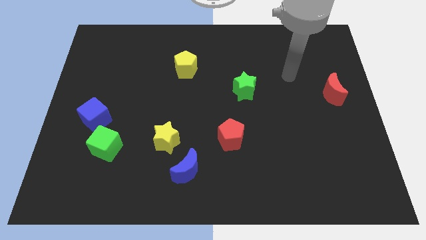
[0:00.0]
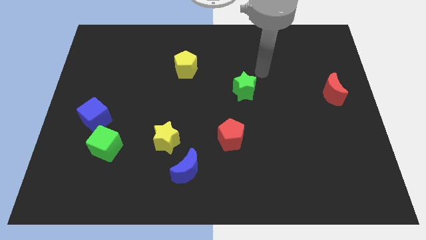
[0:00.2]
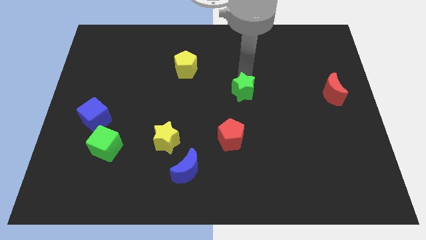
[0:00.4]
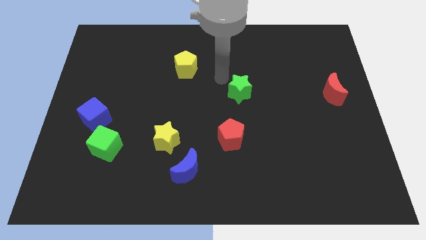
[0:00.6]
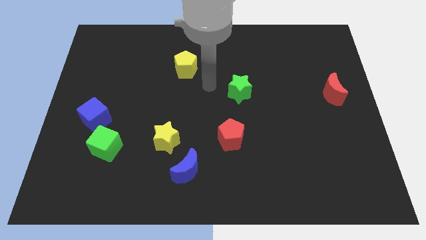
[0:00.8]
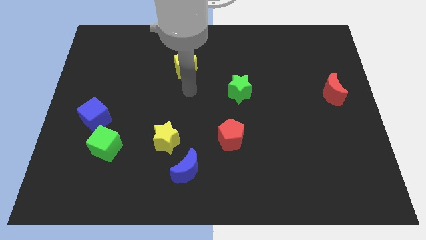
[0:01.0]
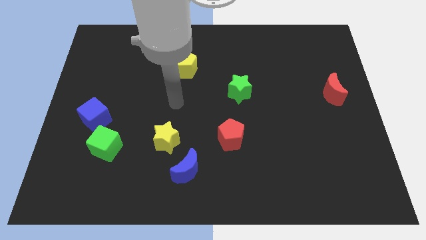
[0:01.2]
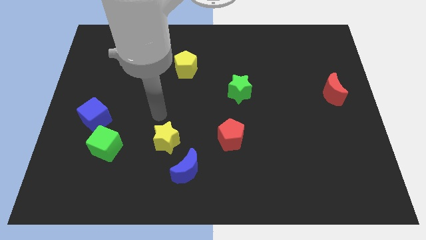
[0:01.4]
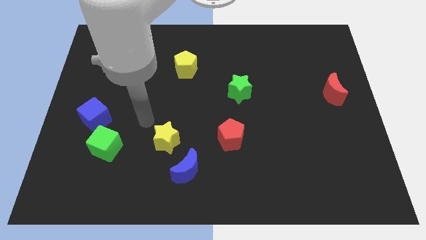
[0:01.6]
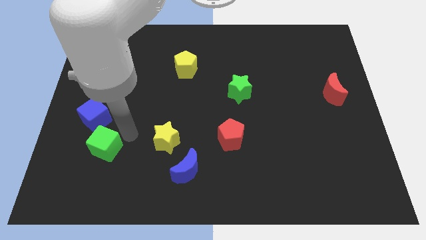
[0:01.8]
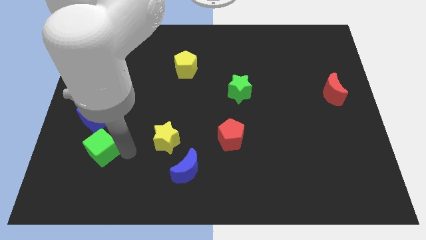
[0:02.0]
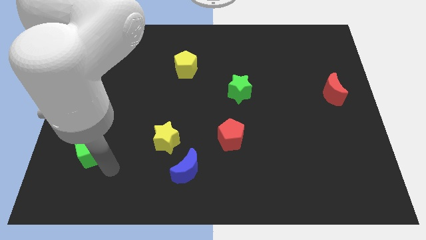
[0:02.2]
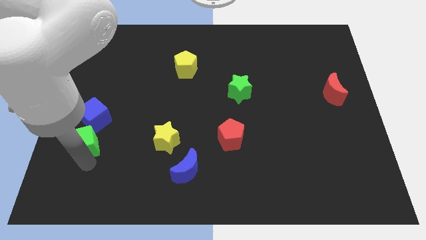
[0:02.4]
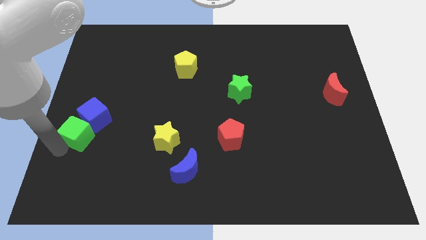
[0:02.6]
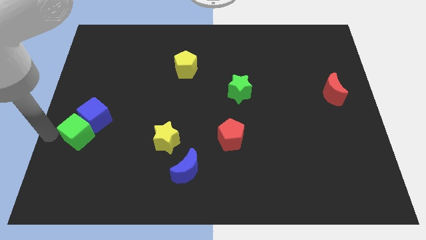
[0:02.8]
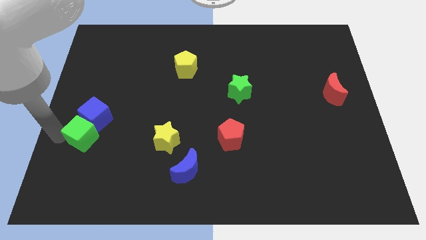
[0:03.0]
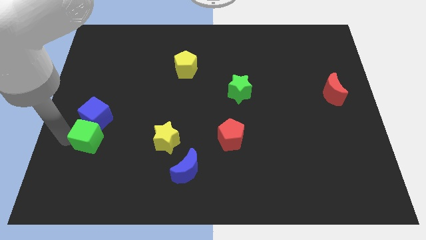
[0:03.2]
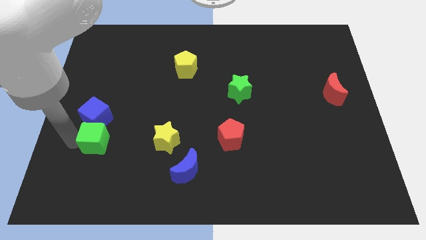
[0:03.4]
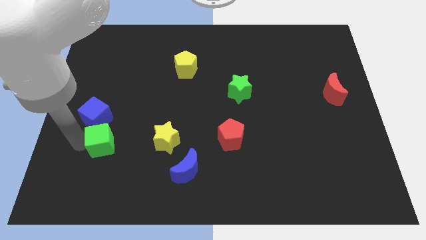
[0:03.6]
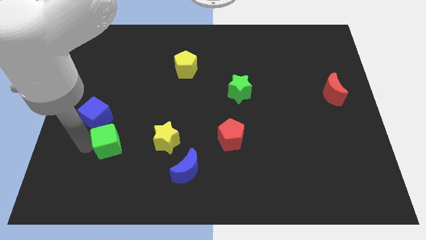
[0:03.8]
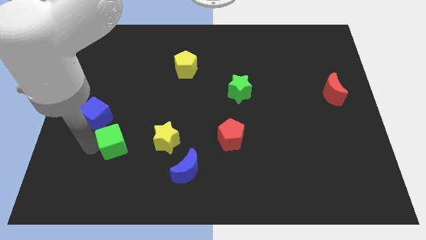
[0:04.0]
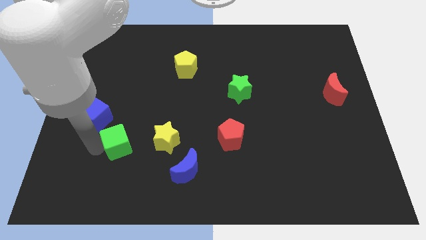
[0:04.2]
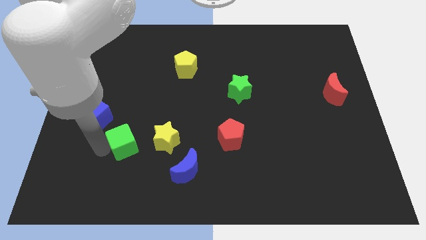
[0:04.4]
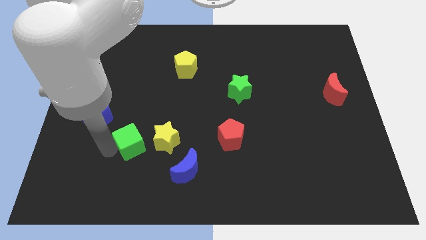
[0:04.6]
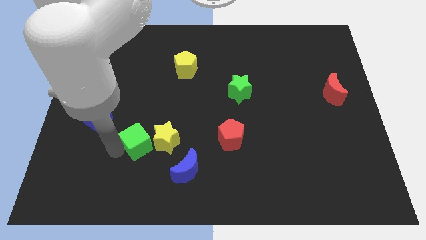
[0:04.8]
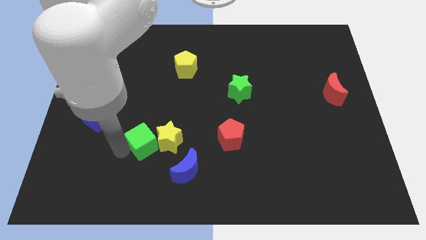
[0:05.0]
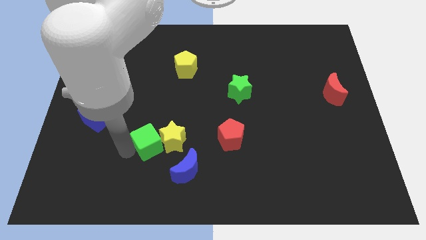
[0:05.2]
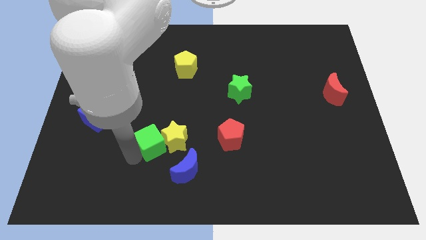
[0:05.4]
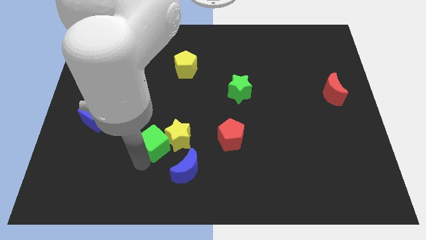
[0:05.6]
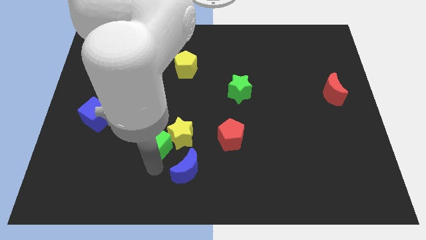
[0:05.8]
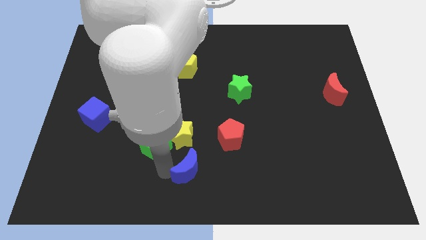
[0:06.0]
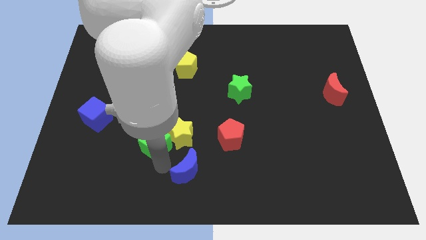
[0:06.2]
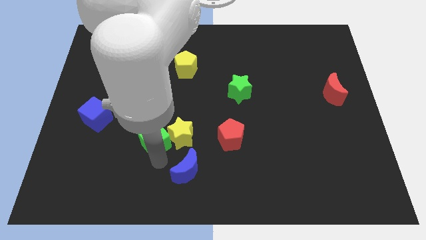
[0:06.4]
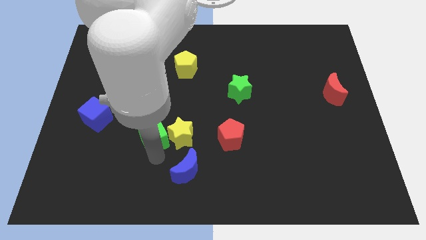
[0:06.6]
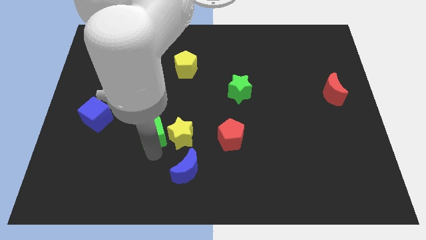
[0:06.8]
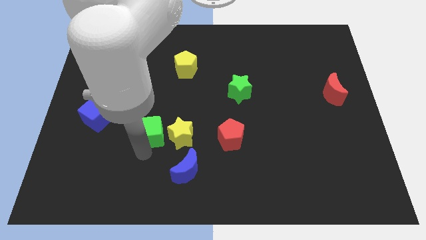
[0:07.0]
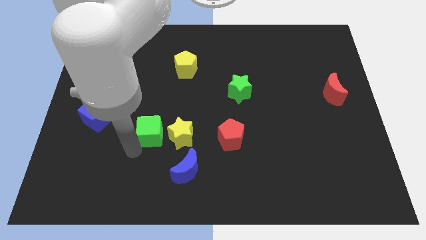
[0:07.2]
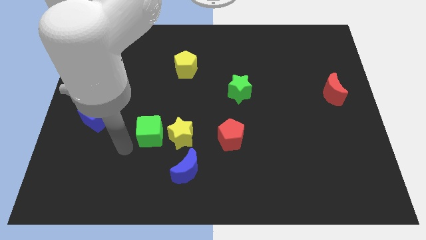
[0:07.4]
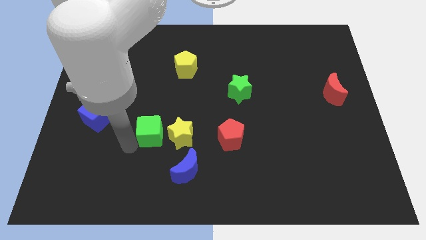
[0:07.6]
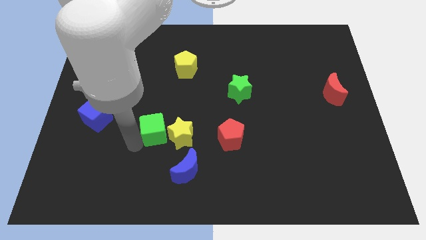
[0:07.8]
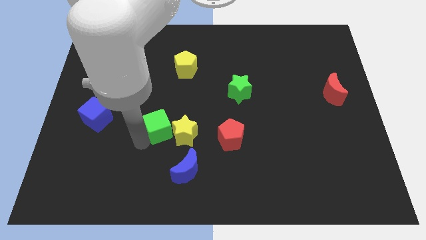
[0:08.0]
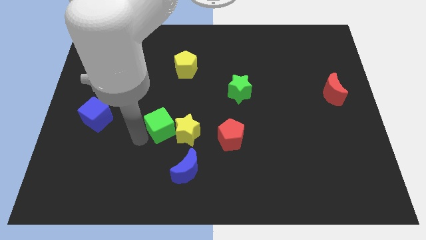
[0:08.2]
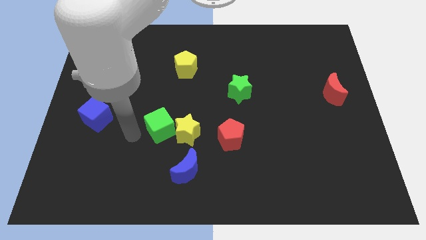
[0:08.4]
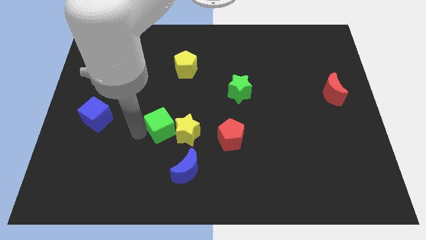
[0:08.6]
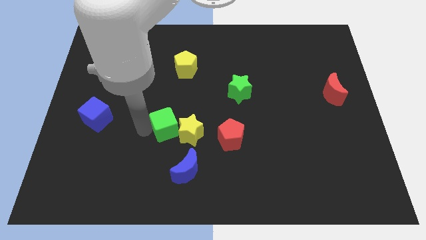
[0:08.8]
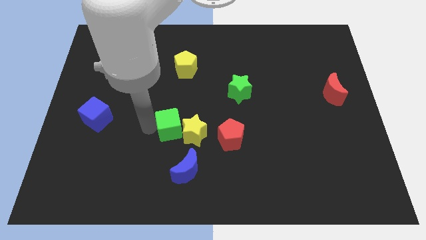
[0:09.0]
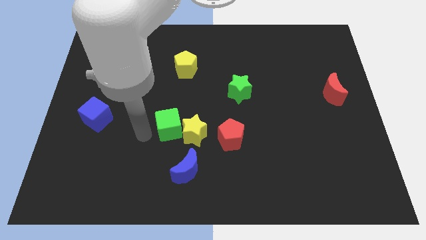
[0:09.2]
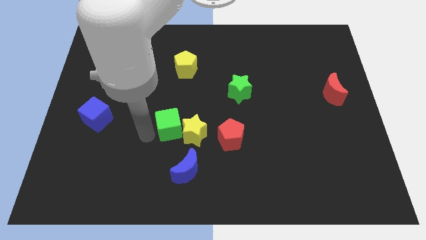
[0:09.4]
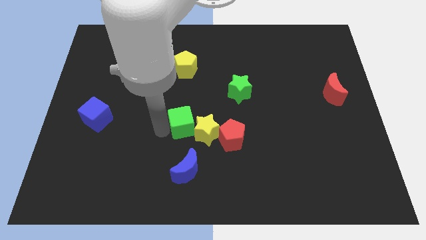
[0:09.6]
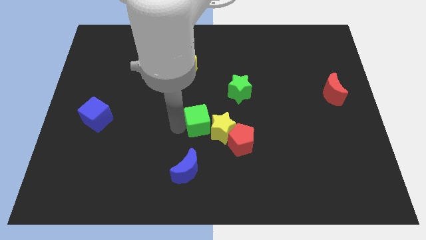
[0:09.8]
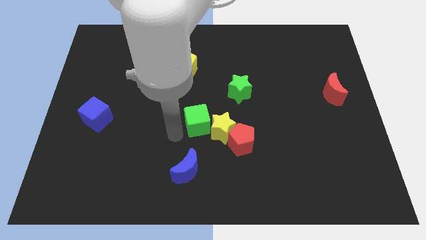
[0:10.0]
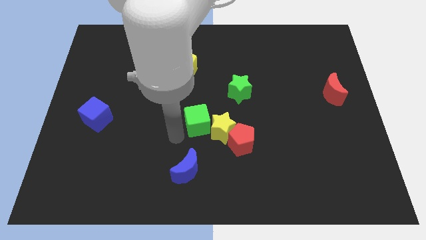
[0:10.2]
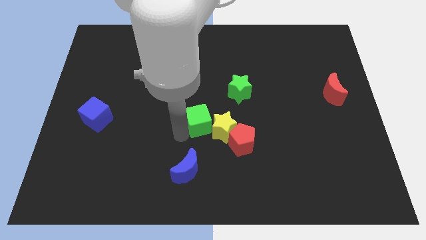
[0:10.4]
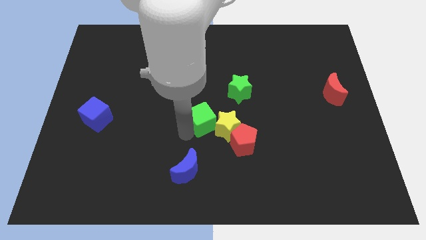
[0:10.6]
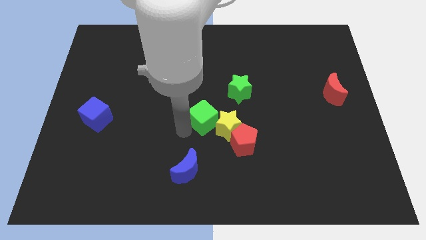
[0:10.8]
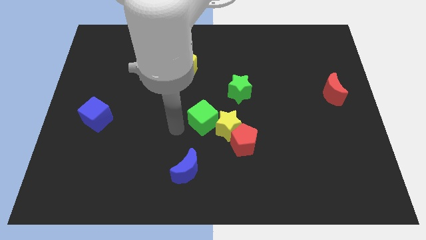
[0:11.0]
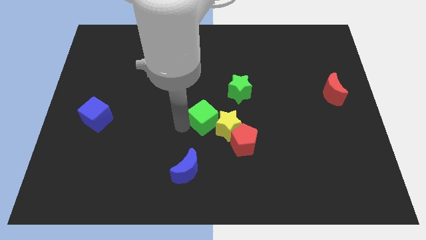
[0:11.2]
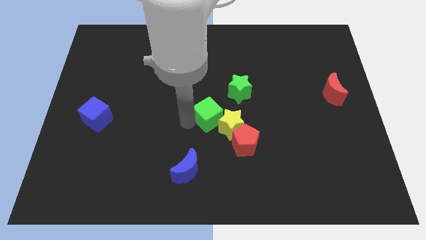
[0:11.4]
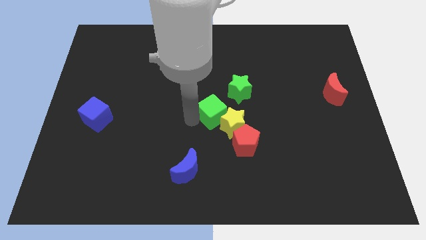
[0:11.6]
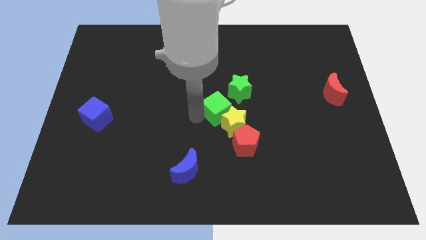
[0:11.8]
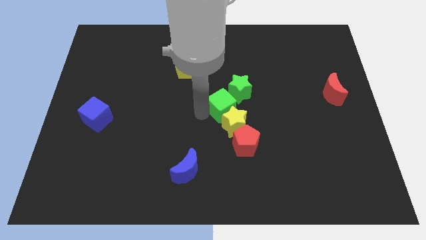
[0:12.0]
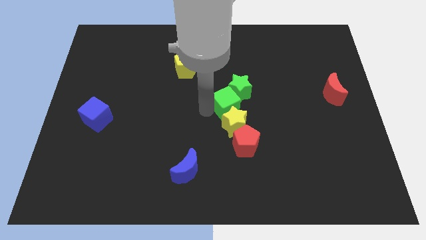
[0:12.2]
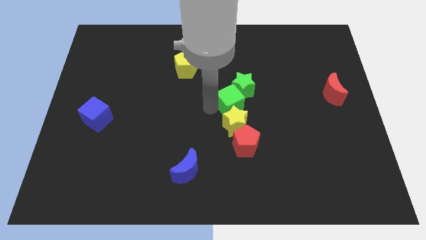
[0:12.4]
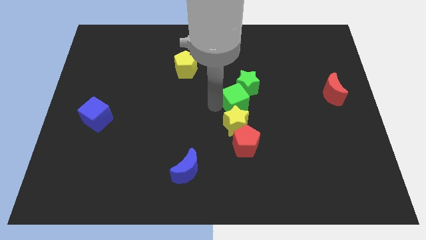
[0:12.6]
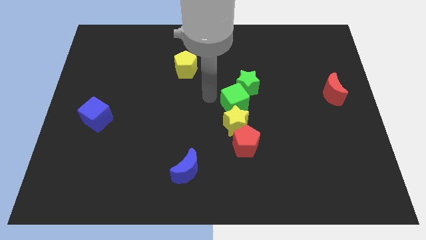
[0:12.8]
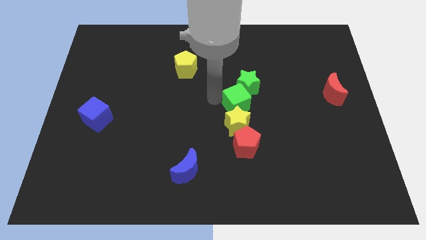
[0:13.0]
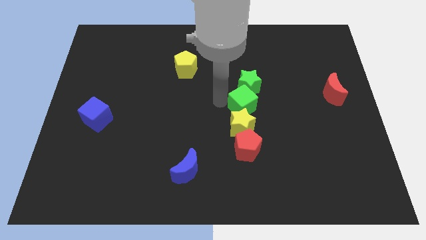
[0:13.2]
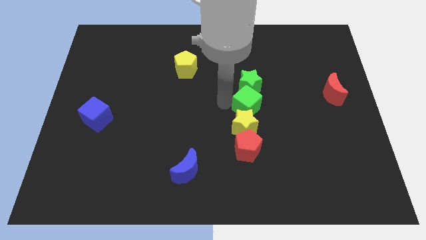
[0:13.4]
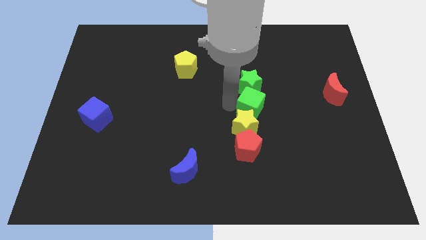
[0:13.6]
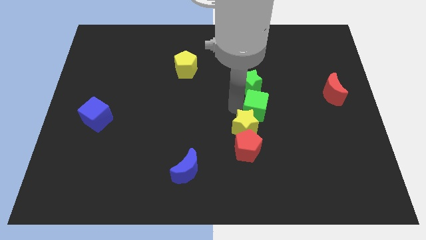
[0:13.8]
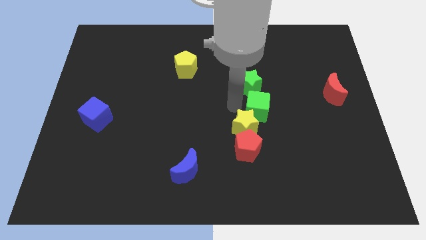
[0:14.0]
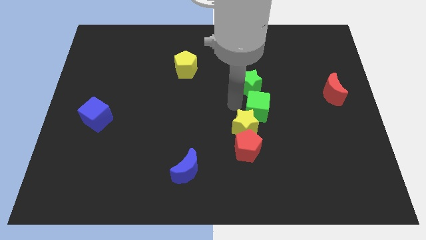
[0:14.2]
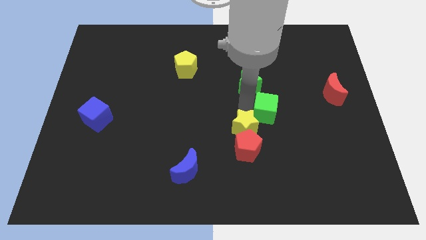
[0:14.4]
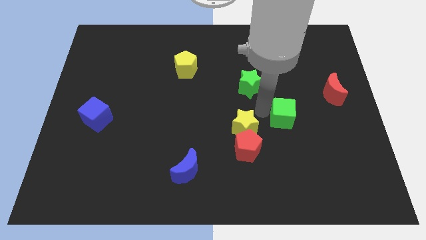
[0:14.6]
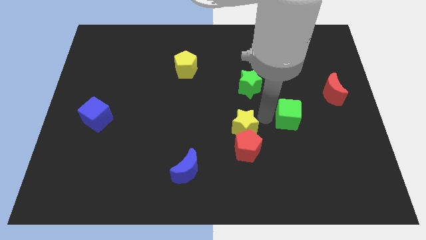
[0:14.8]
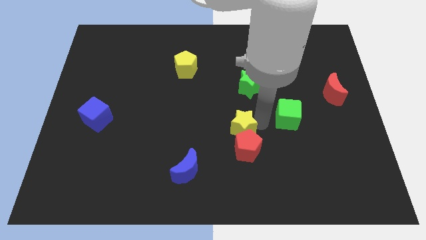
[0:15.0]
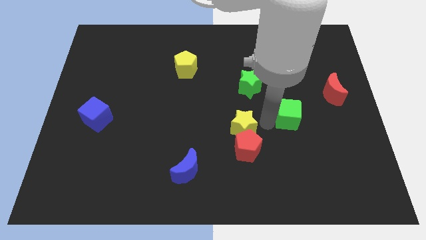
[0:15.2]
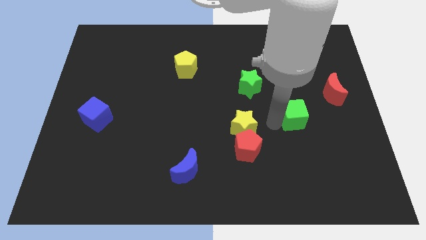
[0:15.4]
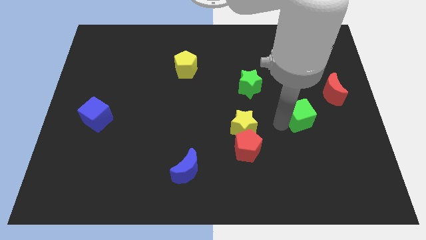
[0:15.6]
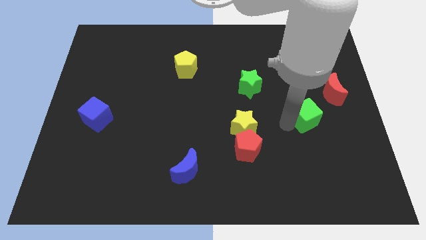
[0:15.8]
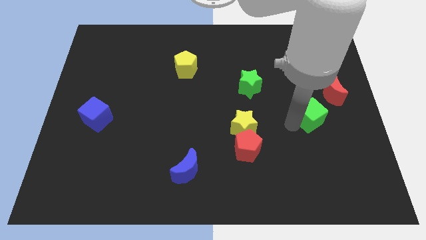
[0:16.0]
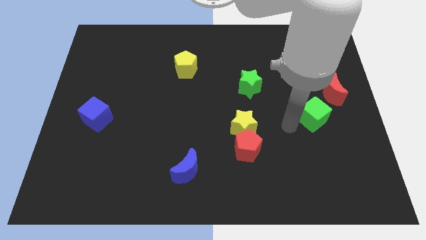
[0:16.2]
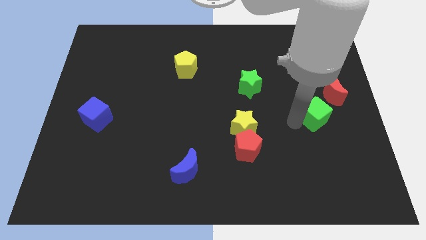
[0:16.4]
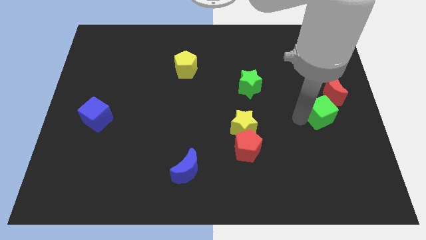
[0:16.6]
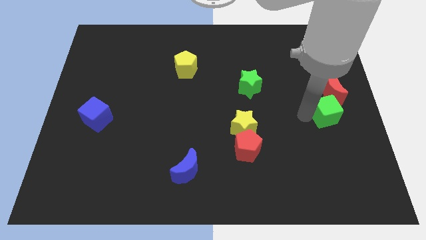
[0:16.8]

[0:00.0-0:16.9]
move the green cube to the right side of the board
